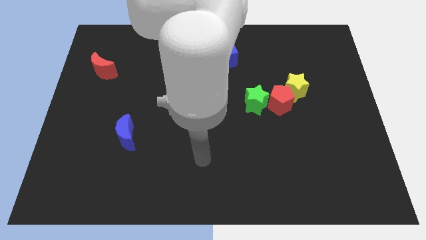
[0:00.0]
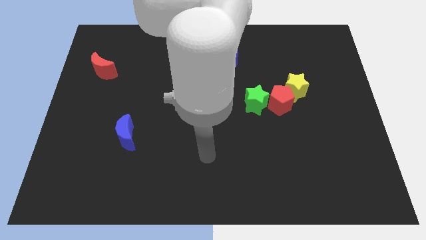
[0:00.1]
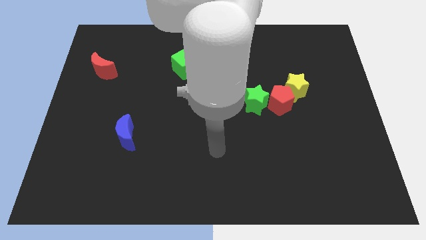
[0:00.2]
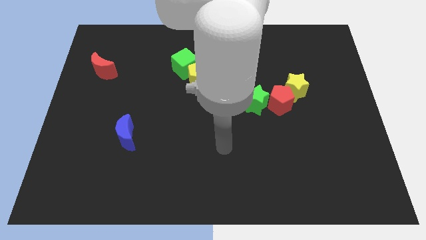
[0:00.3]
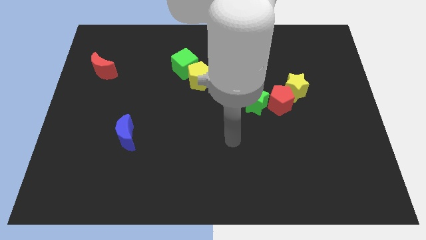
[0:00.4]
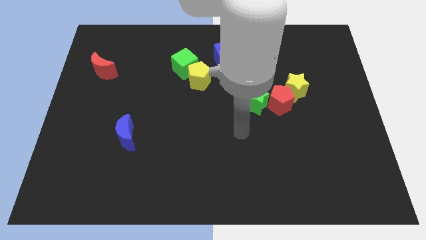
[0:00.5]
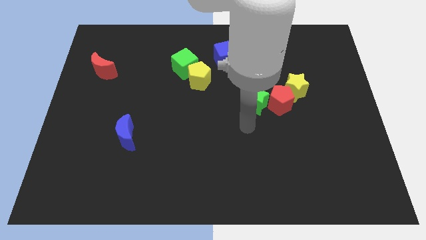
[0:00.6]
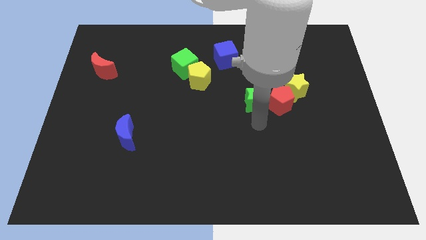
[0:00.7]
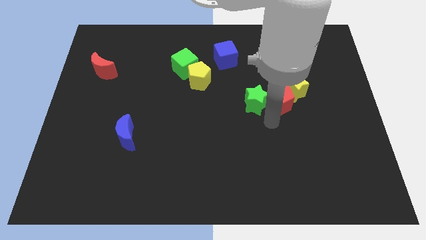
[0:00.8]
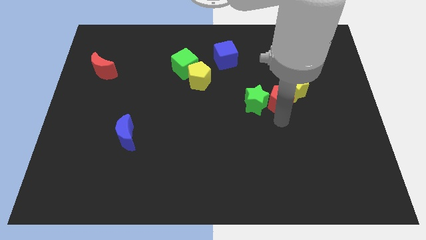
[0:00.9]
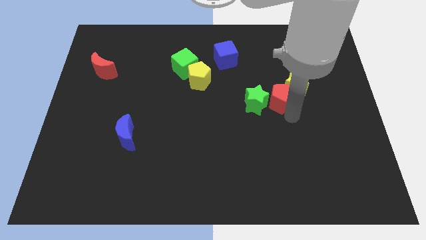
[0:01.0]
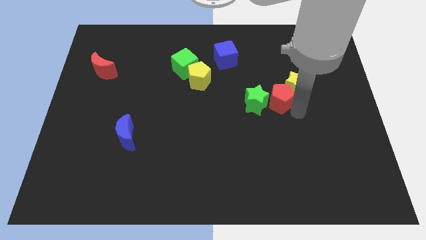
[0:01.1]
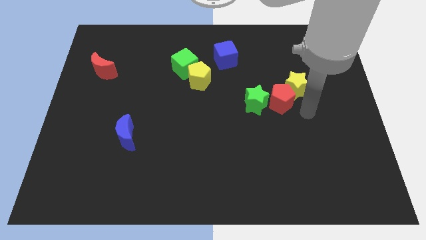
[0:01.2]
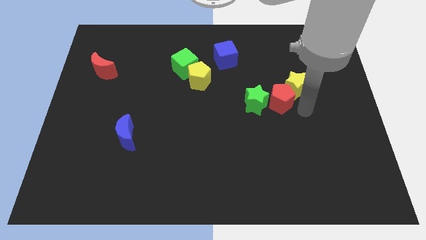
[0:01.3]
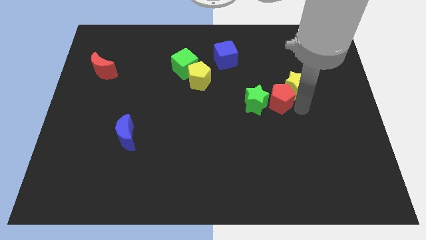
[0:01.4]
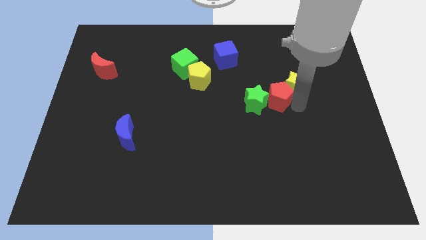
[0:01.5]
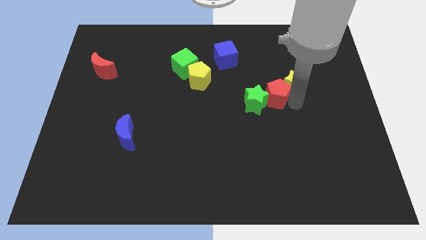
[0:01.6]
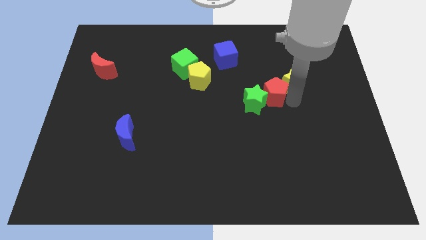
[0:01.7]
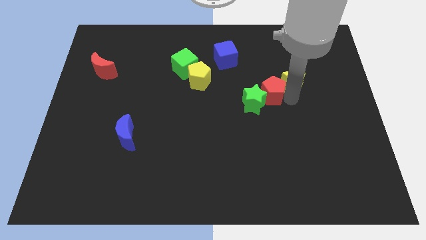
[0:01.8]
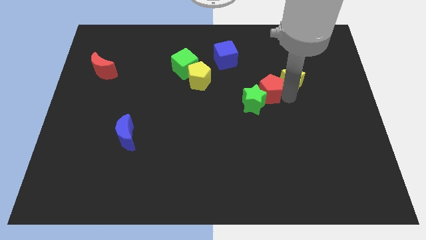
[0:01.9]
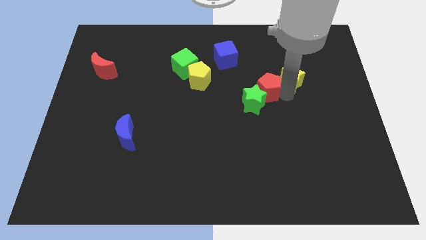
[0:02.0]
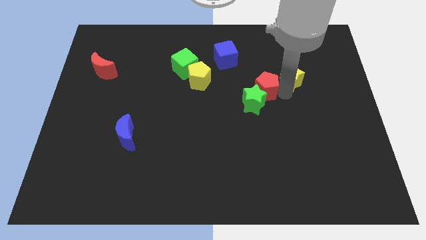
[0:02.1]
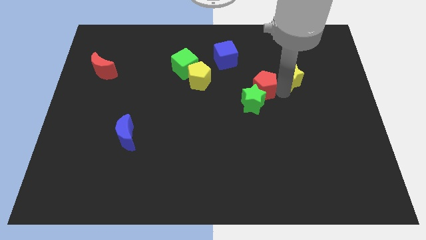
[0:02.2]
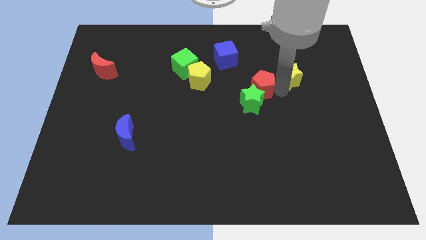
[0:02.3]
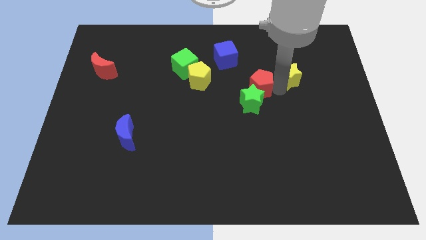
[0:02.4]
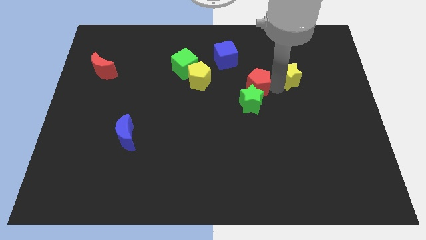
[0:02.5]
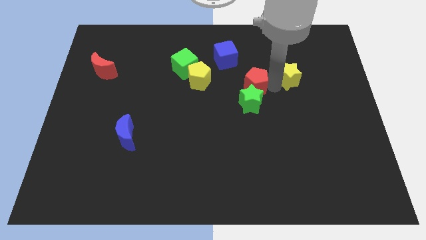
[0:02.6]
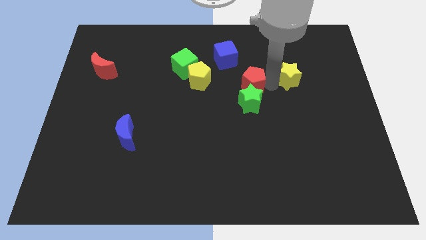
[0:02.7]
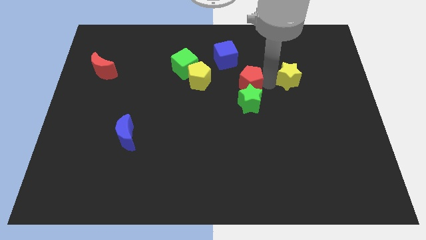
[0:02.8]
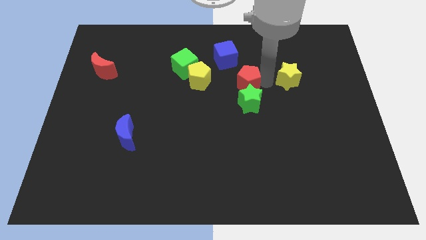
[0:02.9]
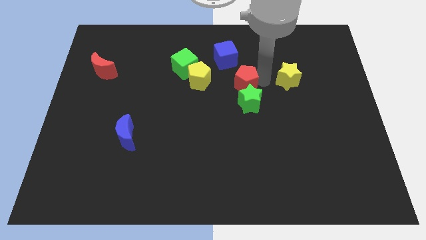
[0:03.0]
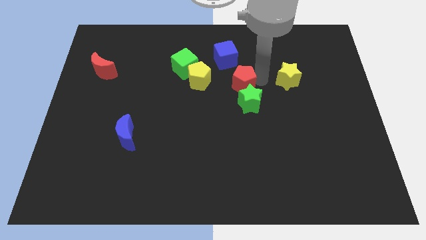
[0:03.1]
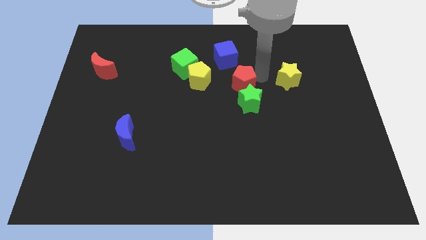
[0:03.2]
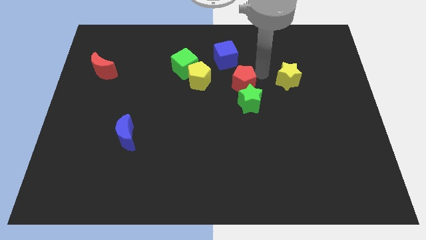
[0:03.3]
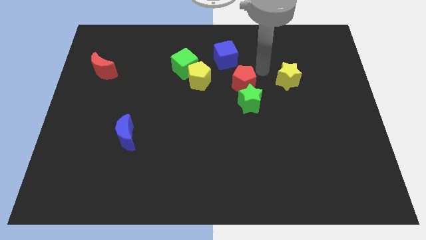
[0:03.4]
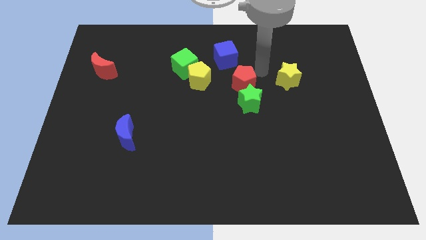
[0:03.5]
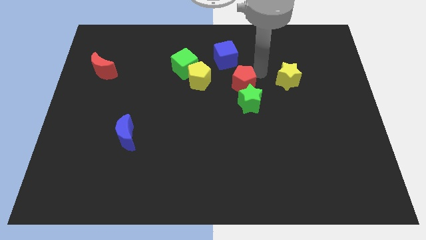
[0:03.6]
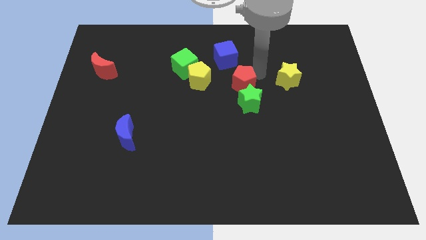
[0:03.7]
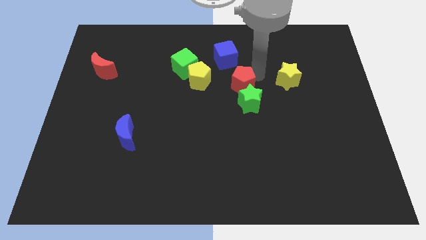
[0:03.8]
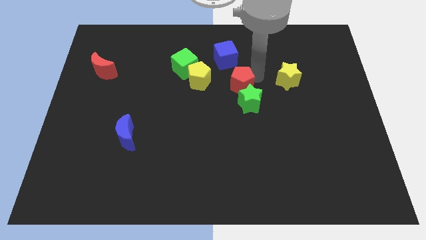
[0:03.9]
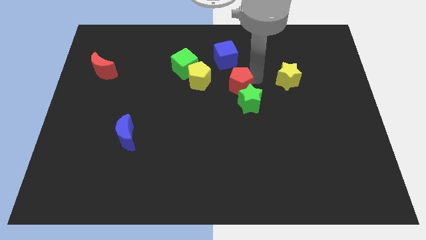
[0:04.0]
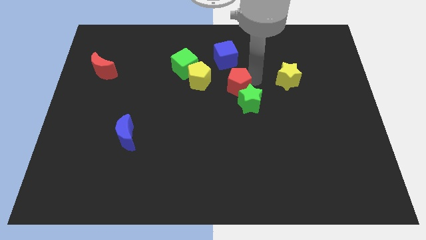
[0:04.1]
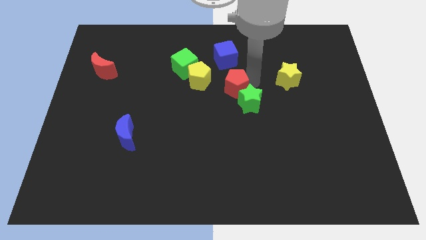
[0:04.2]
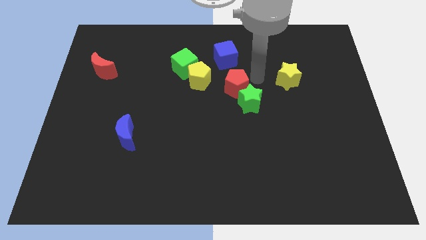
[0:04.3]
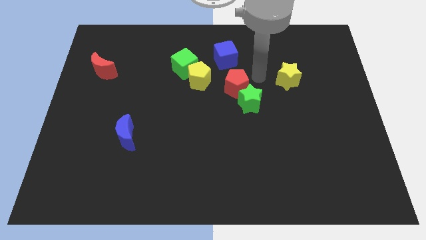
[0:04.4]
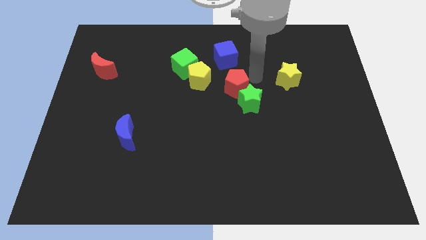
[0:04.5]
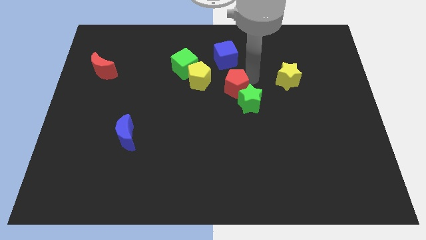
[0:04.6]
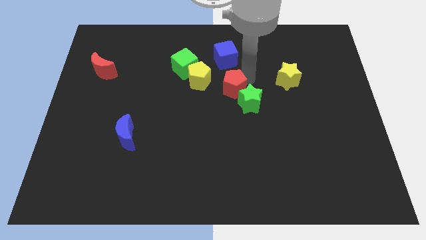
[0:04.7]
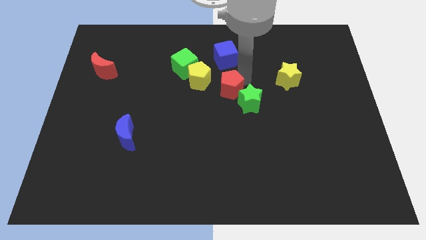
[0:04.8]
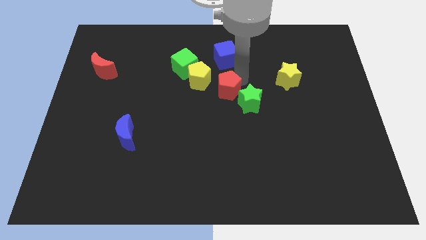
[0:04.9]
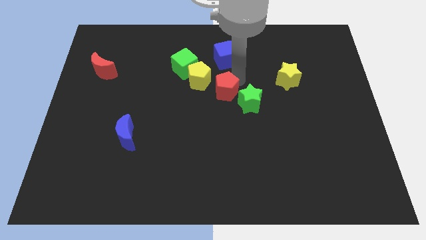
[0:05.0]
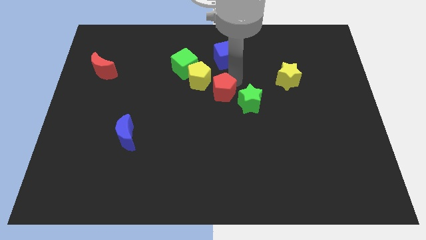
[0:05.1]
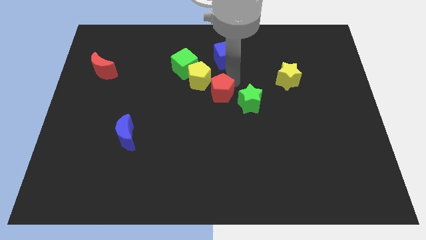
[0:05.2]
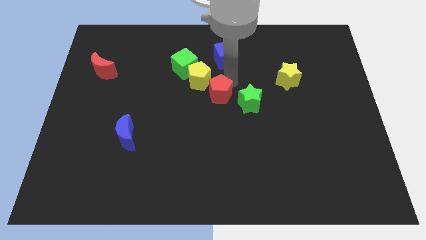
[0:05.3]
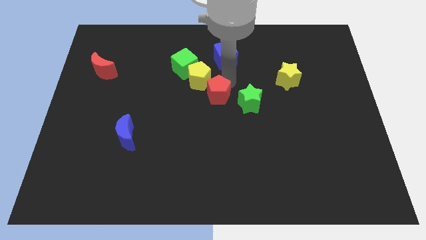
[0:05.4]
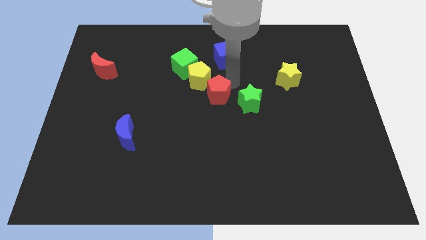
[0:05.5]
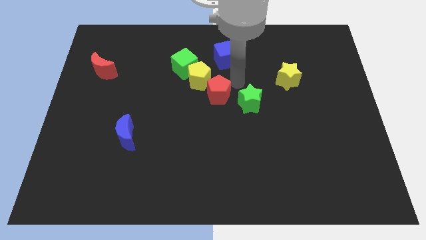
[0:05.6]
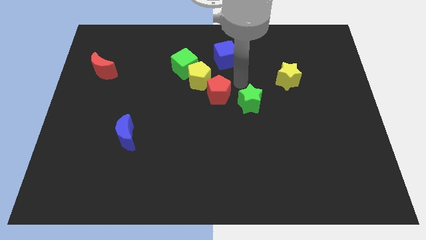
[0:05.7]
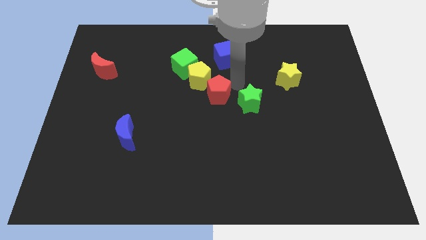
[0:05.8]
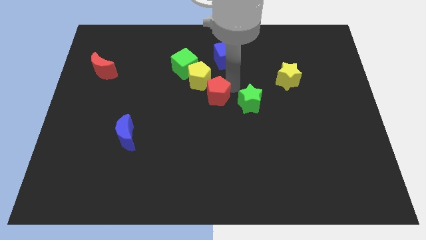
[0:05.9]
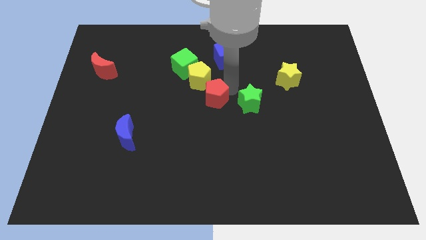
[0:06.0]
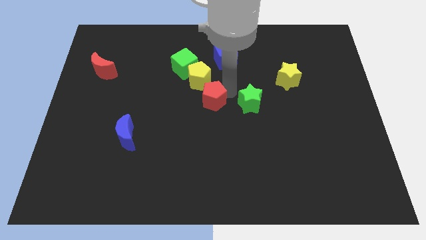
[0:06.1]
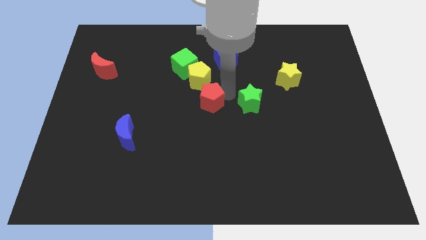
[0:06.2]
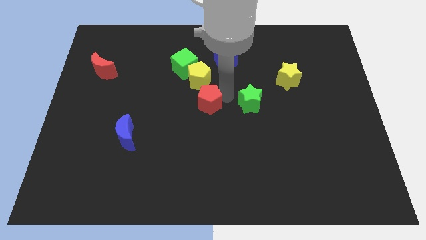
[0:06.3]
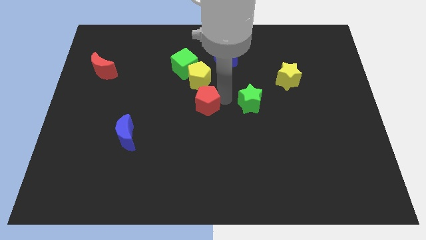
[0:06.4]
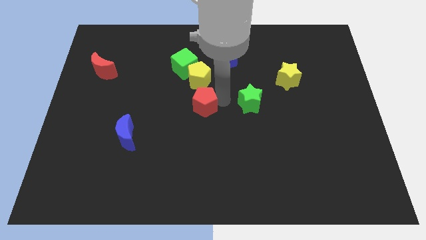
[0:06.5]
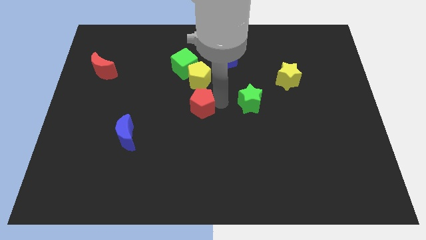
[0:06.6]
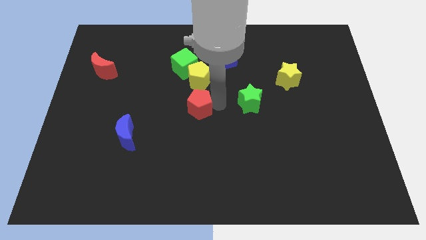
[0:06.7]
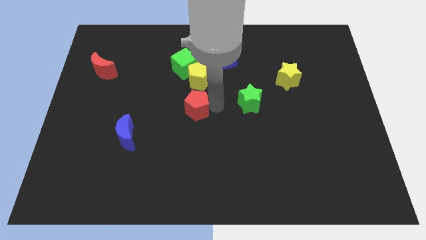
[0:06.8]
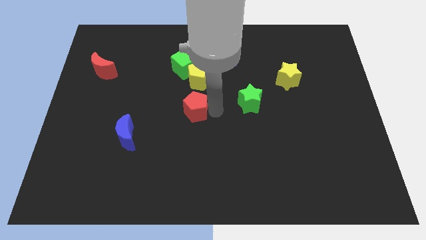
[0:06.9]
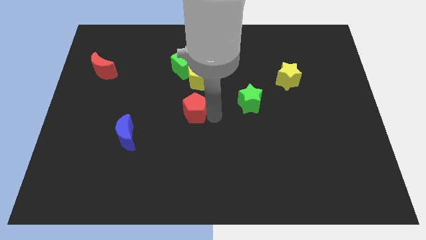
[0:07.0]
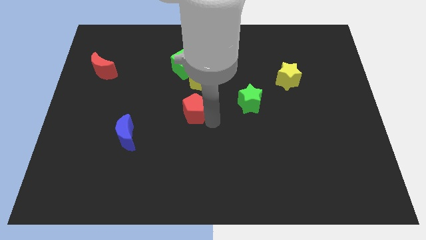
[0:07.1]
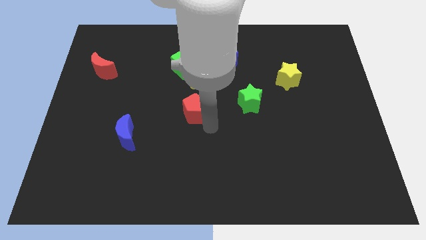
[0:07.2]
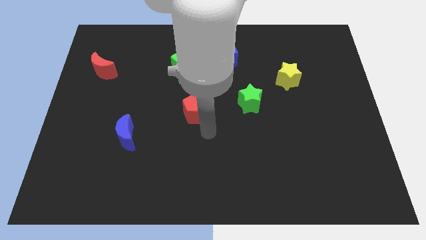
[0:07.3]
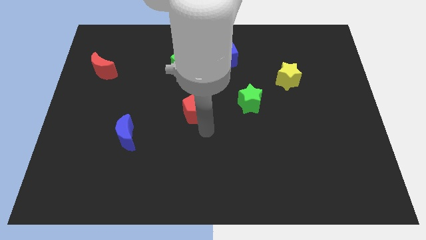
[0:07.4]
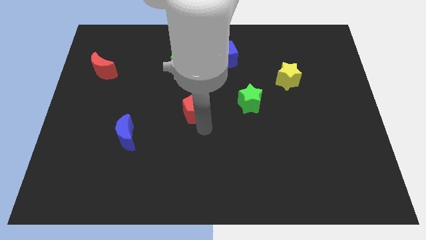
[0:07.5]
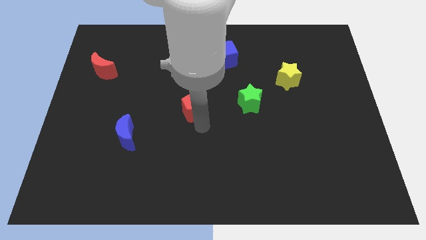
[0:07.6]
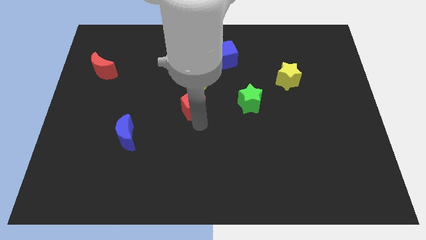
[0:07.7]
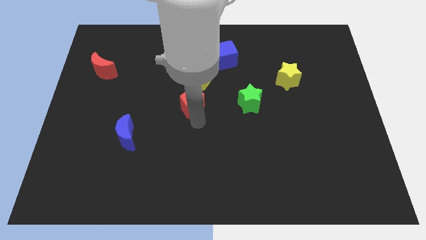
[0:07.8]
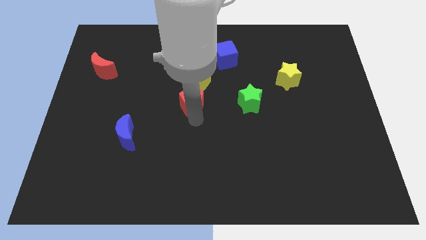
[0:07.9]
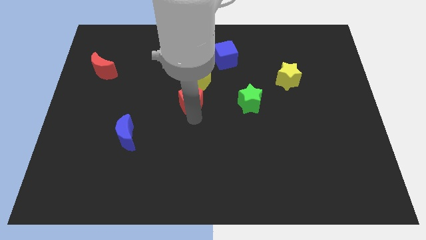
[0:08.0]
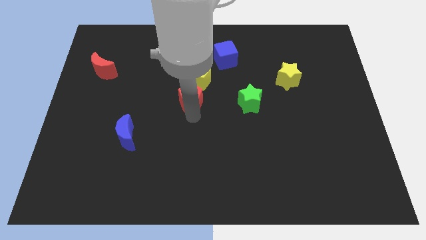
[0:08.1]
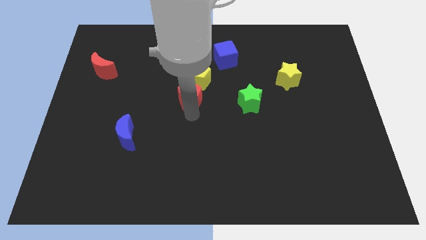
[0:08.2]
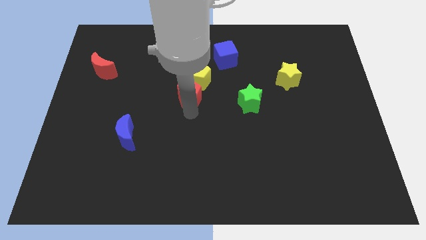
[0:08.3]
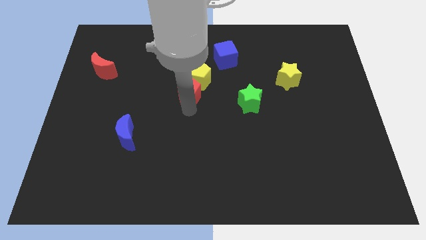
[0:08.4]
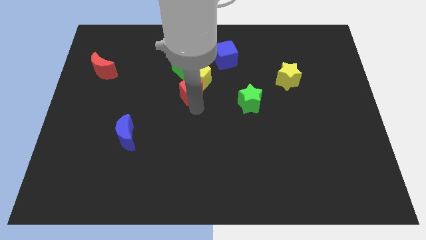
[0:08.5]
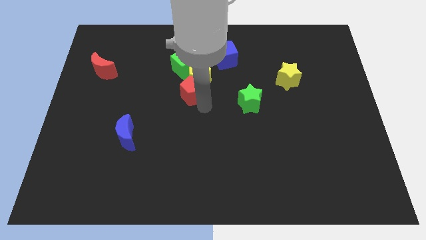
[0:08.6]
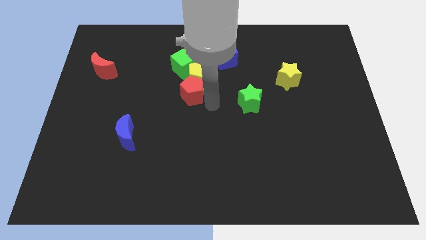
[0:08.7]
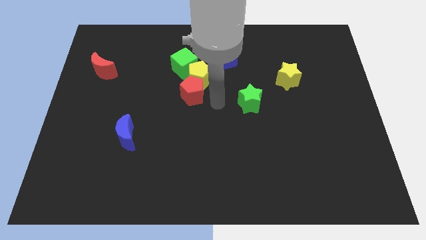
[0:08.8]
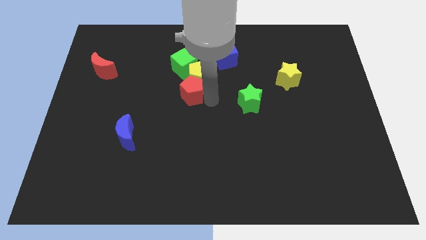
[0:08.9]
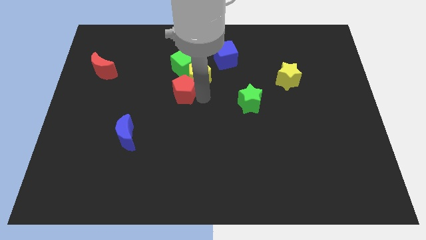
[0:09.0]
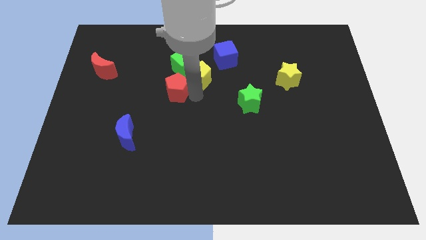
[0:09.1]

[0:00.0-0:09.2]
slide the red pentagon to the bottom left side of the green cube
